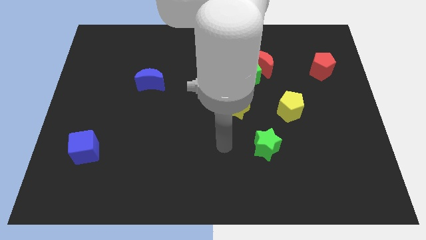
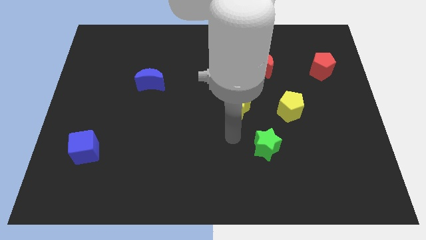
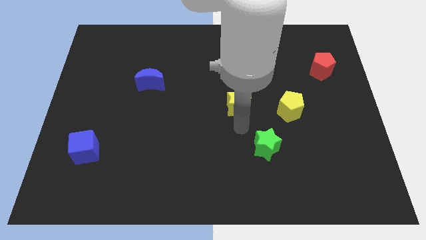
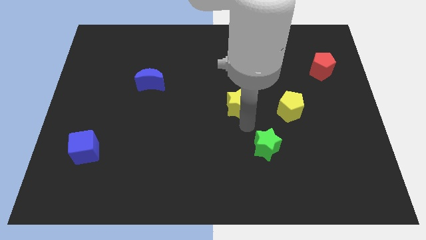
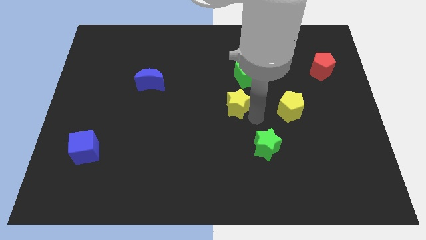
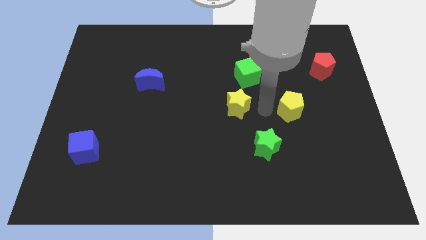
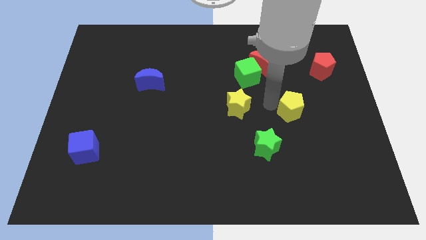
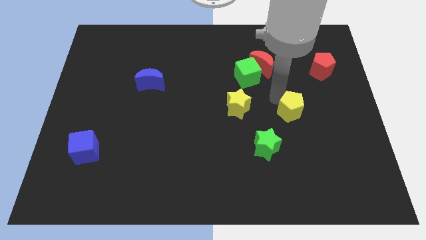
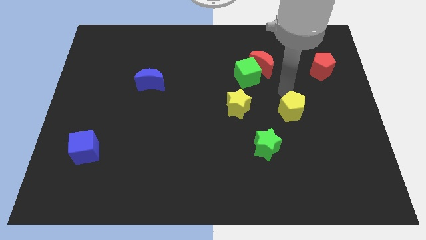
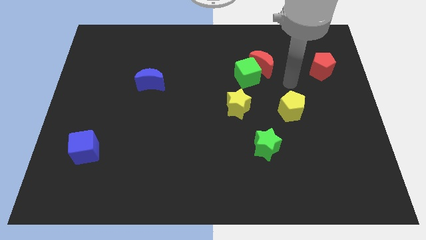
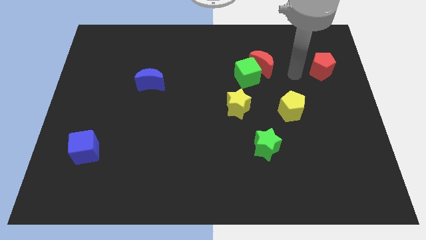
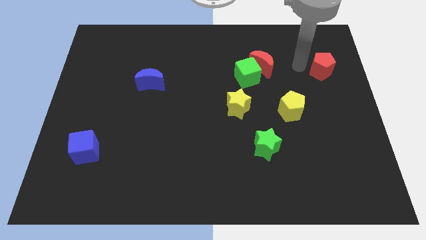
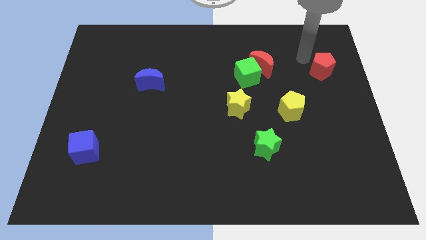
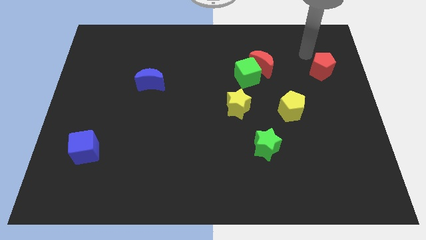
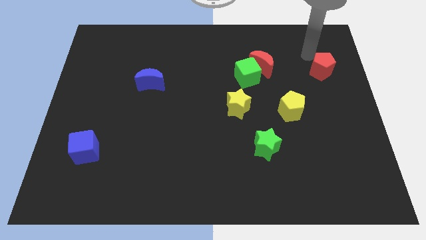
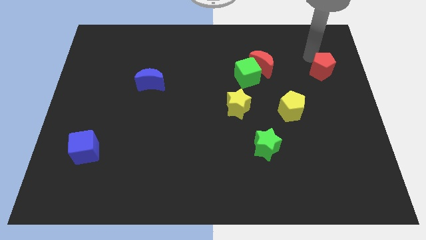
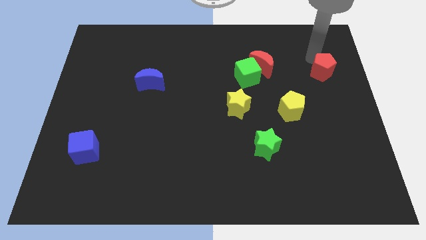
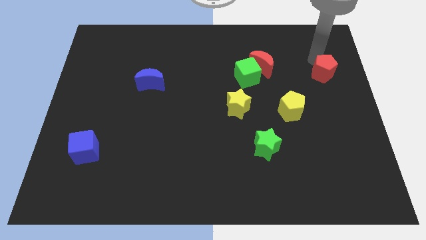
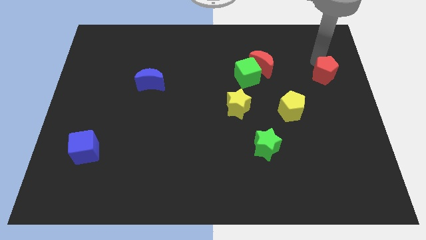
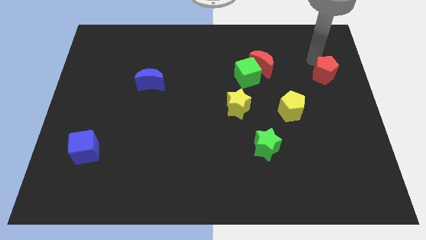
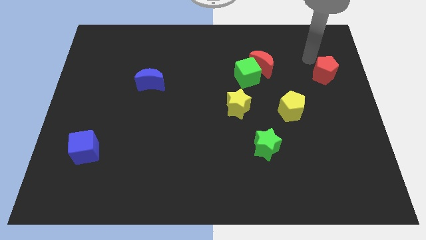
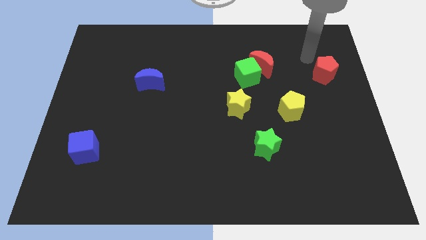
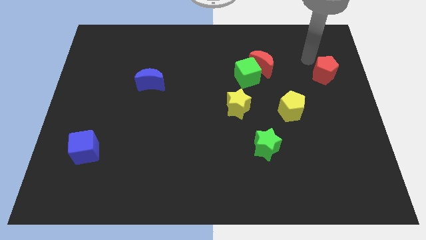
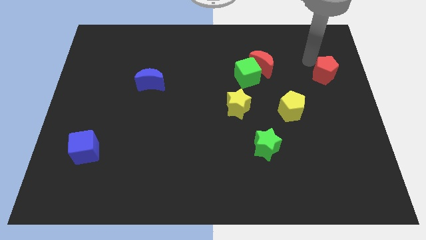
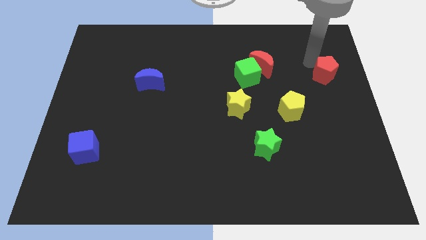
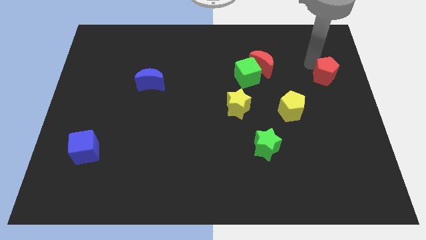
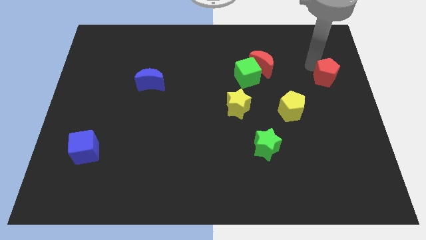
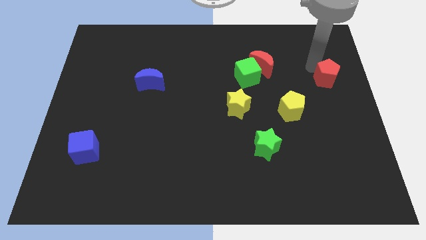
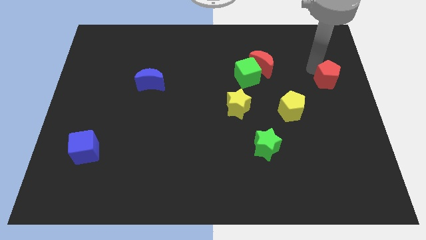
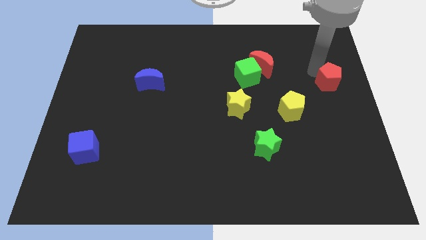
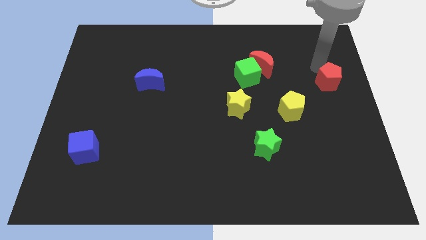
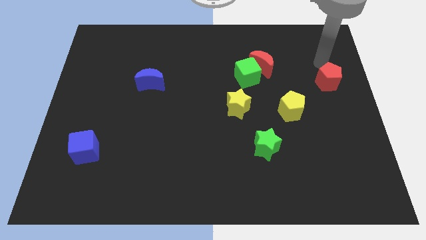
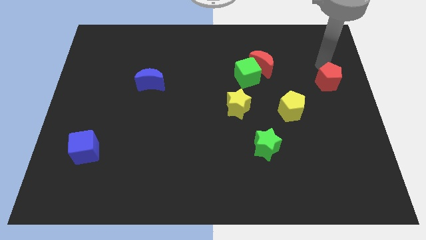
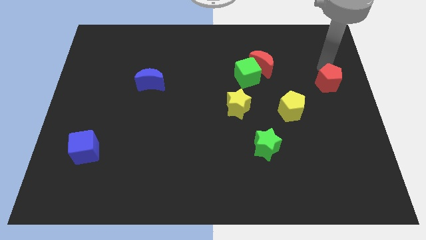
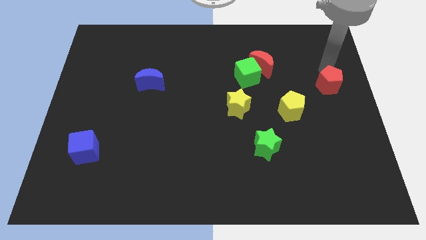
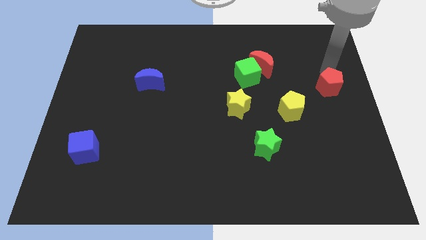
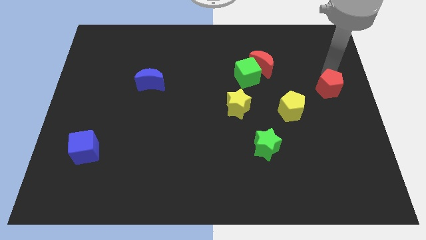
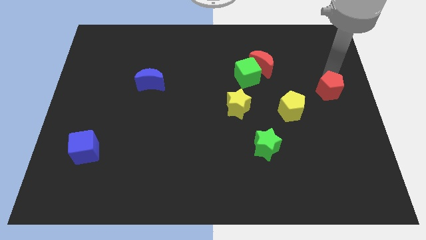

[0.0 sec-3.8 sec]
slightly slide the red pentagon downwards

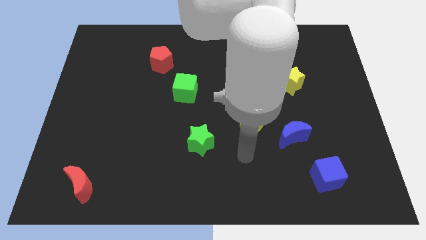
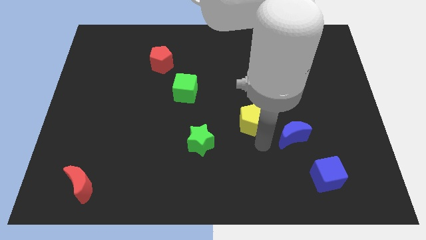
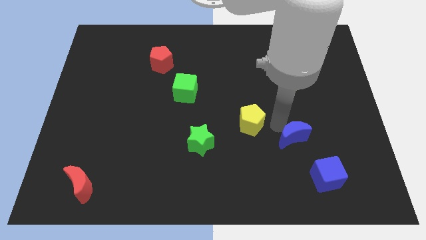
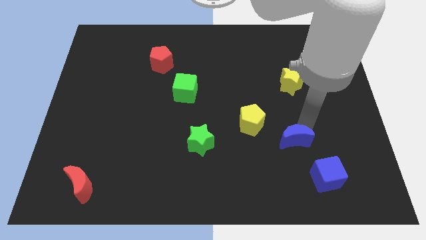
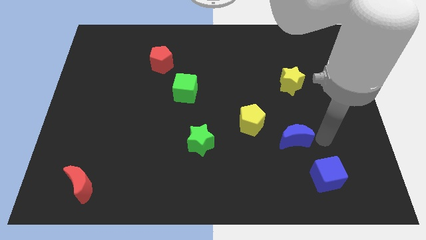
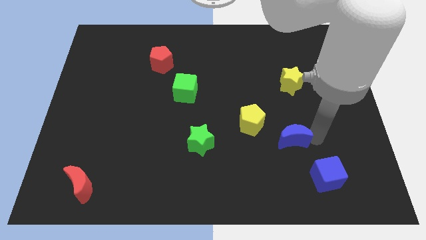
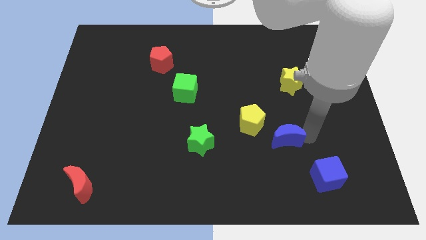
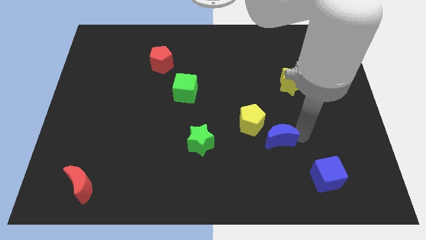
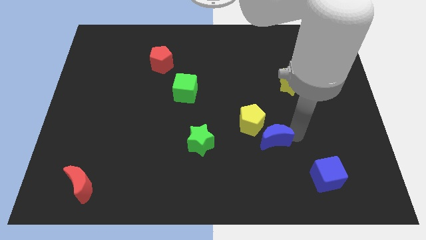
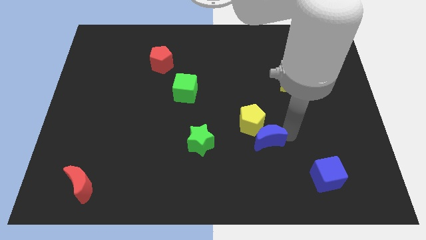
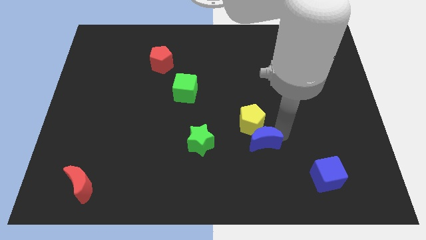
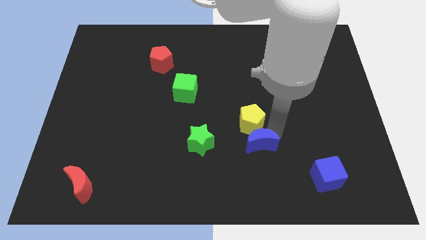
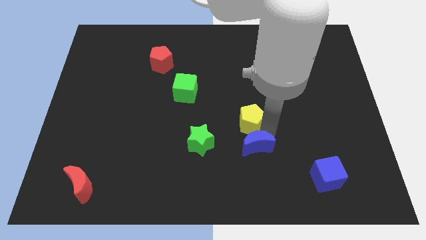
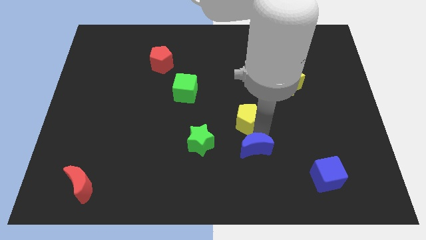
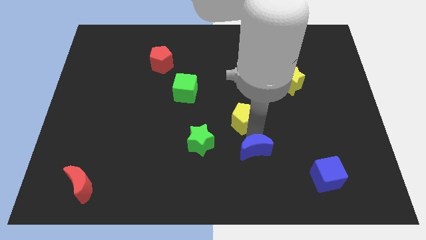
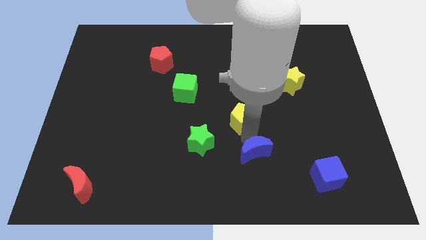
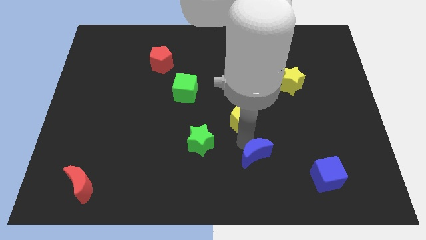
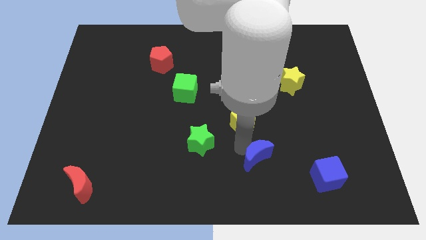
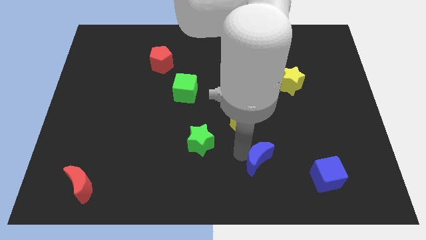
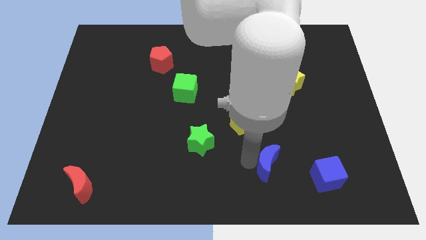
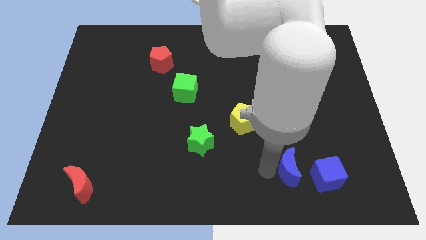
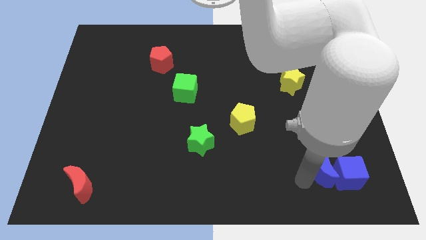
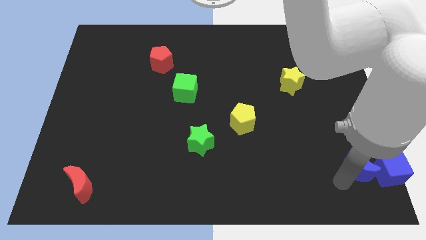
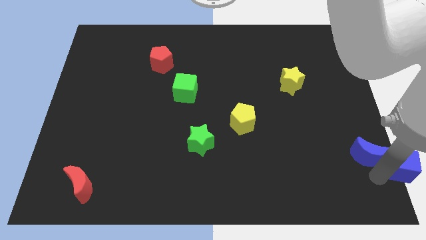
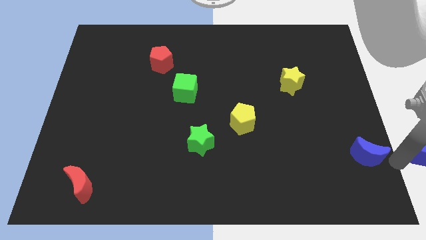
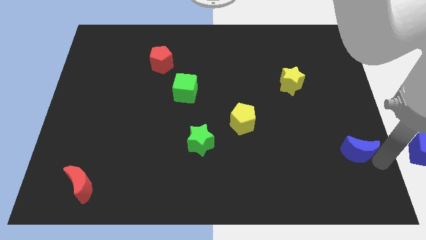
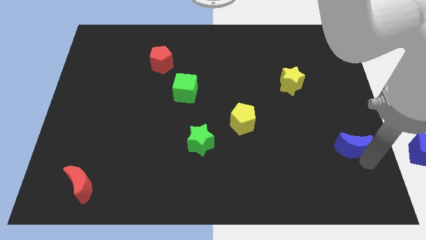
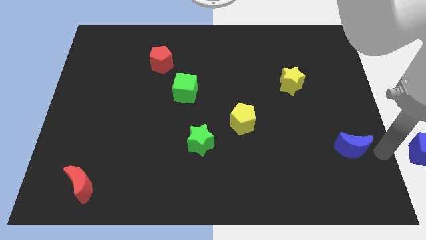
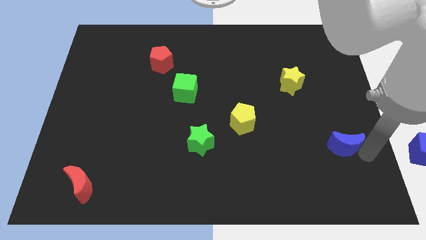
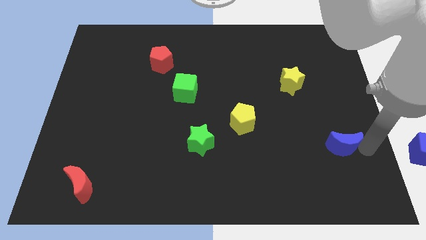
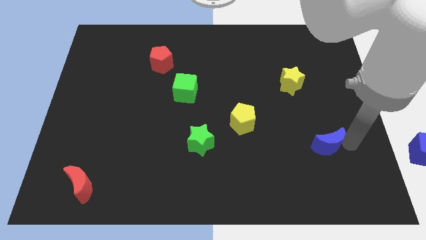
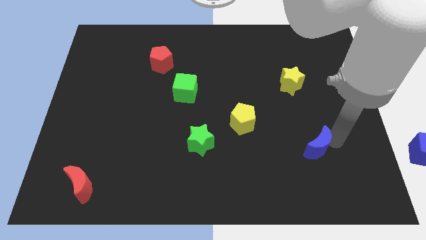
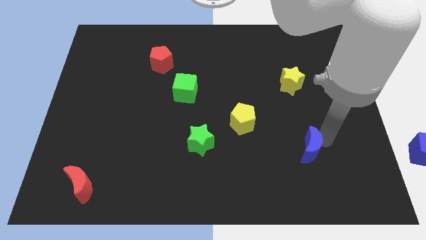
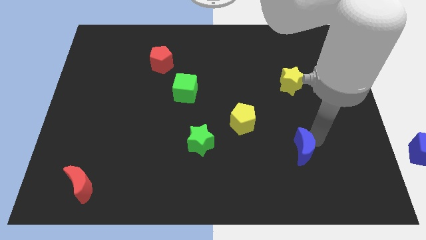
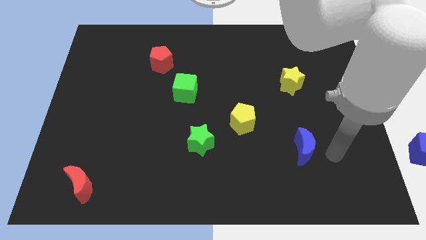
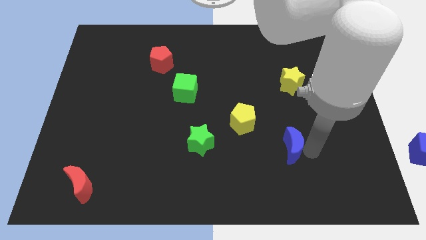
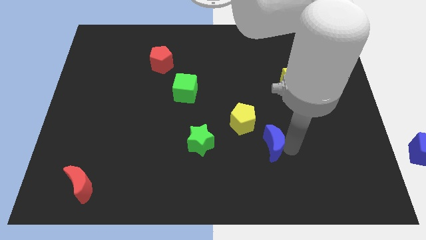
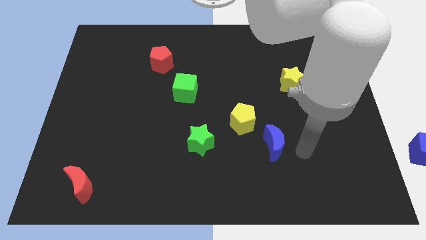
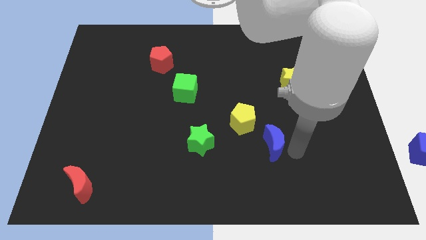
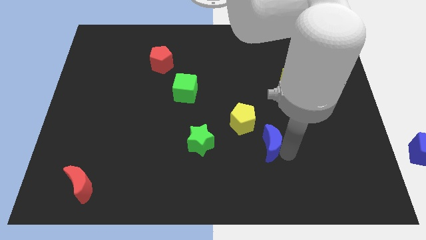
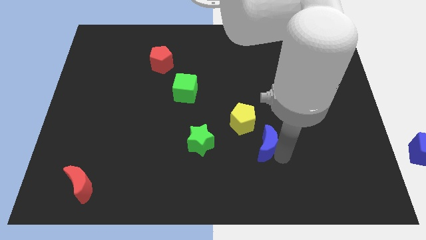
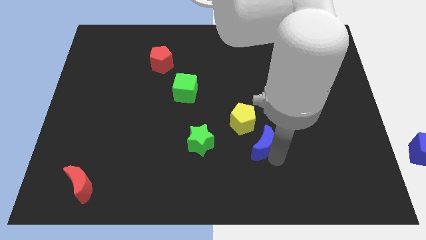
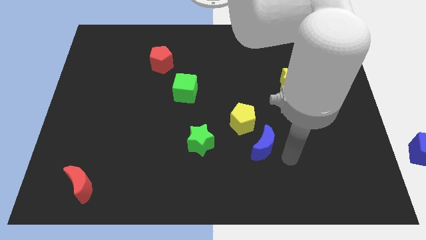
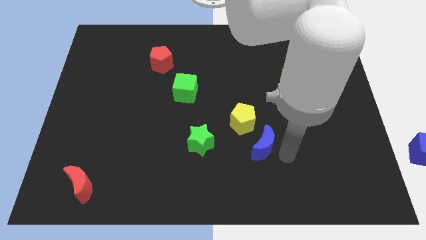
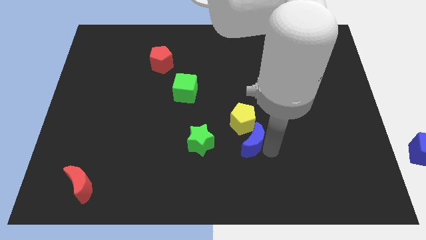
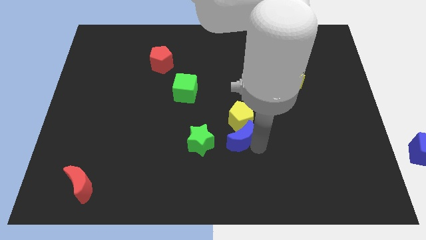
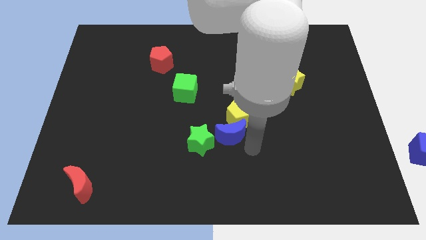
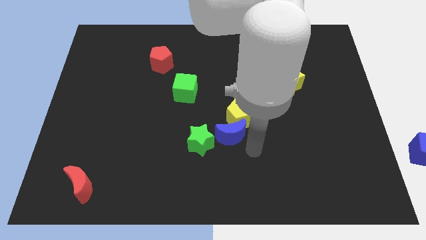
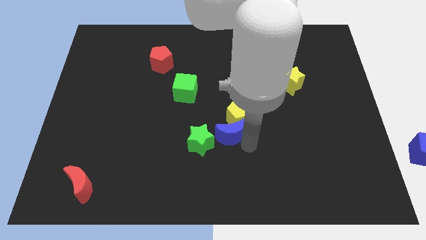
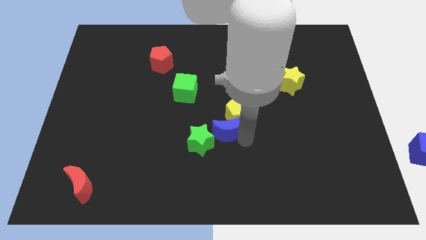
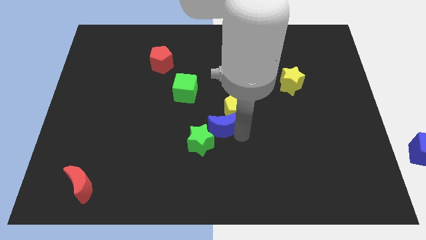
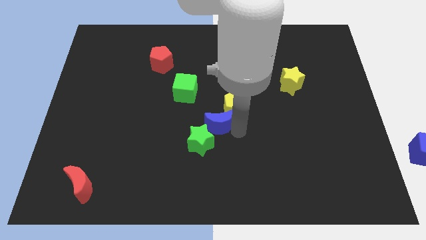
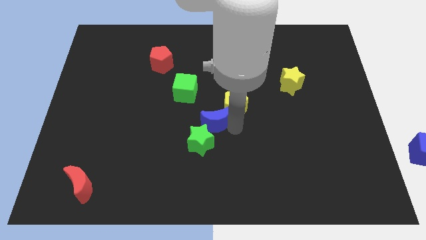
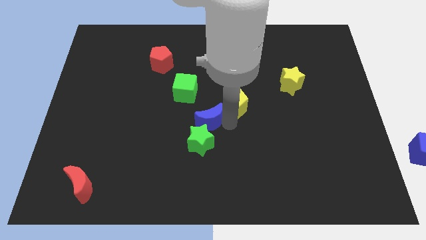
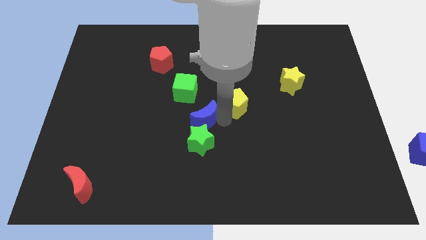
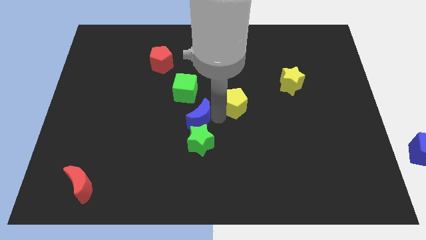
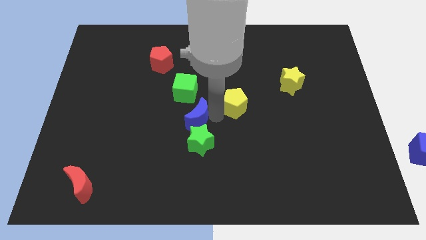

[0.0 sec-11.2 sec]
slide the blue moon to the left
